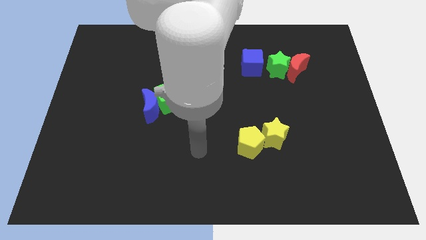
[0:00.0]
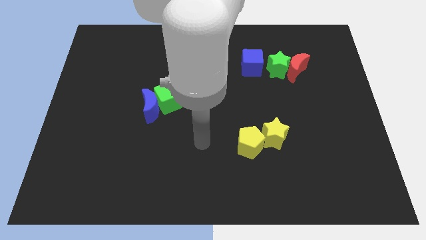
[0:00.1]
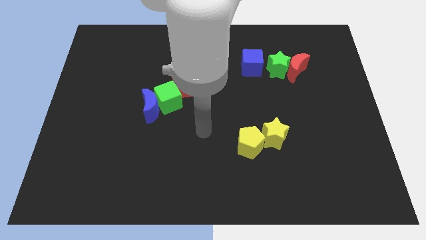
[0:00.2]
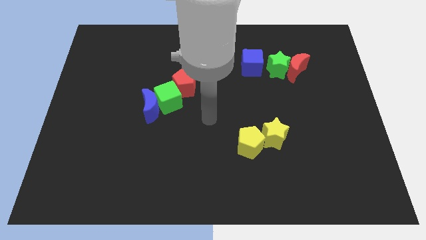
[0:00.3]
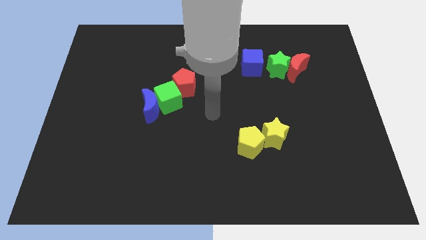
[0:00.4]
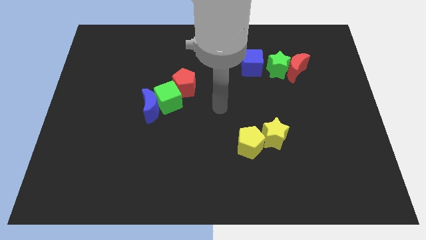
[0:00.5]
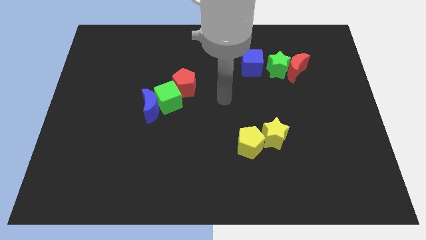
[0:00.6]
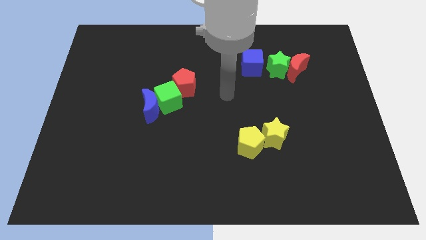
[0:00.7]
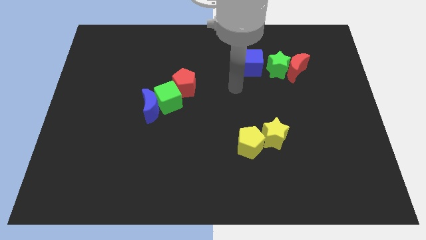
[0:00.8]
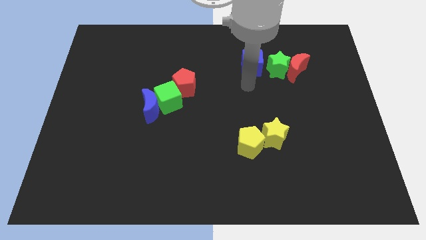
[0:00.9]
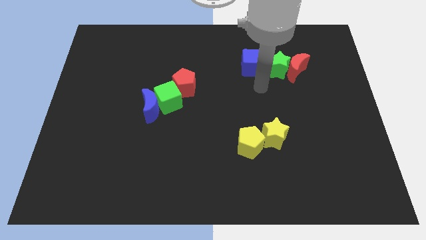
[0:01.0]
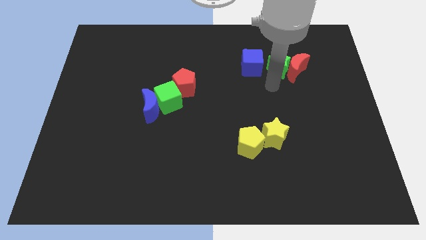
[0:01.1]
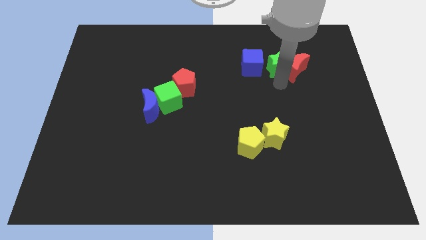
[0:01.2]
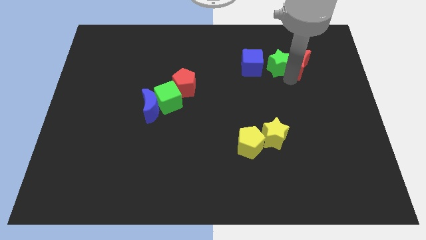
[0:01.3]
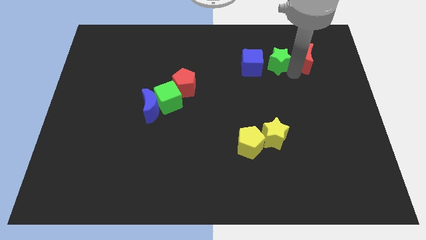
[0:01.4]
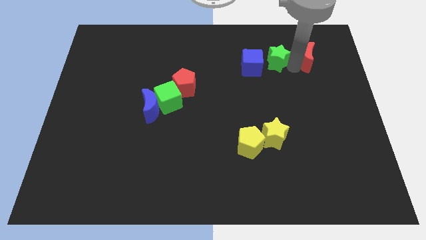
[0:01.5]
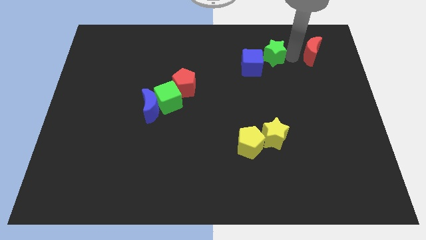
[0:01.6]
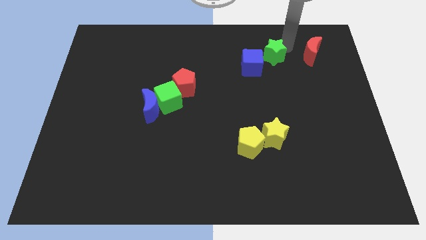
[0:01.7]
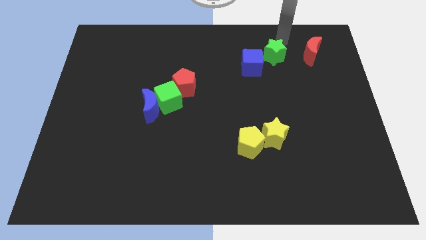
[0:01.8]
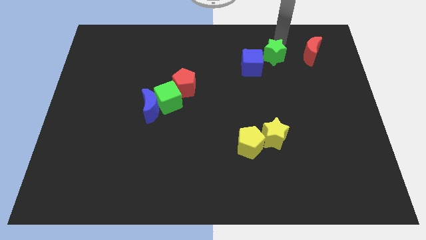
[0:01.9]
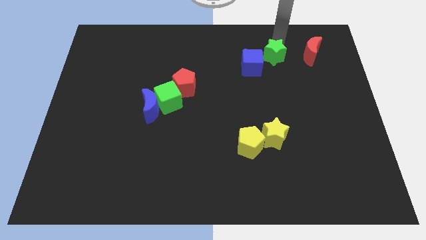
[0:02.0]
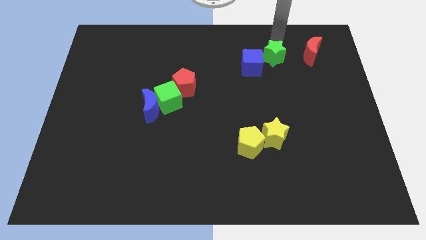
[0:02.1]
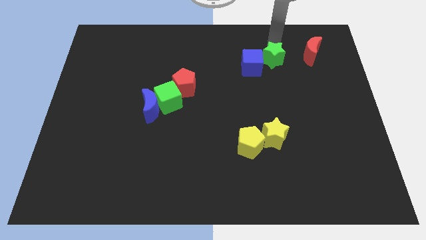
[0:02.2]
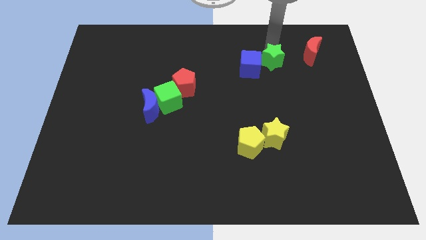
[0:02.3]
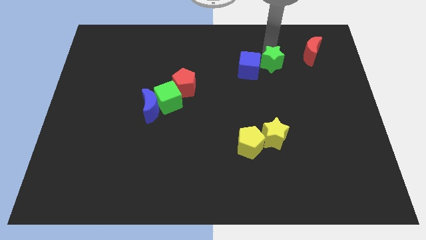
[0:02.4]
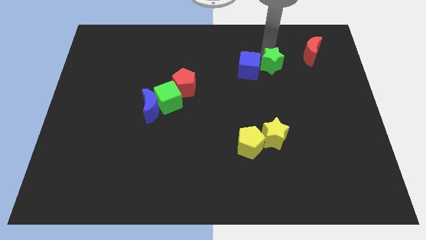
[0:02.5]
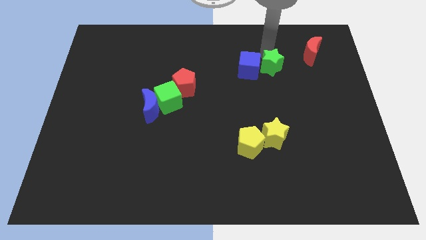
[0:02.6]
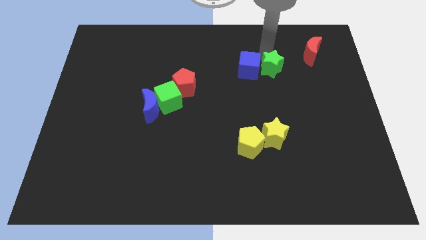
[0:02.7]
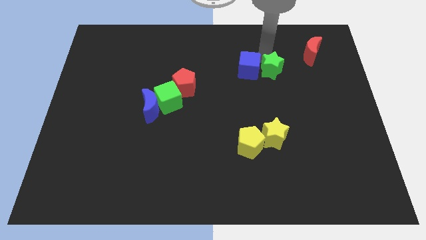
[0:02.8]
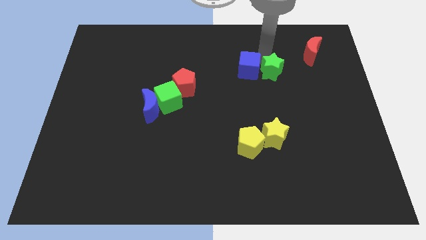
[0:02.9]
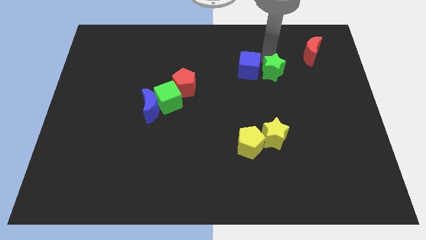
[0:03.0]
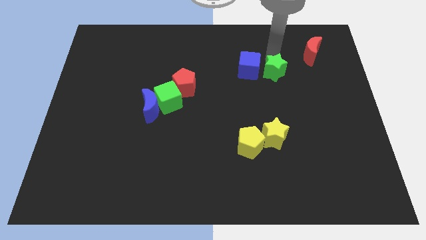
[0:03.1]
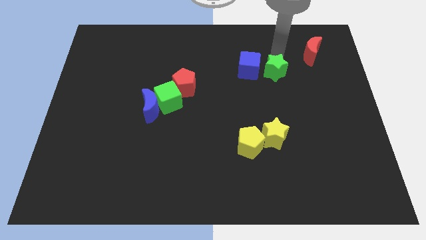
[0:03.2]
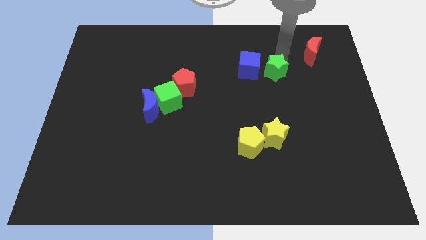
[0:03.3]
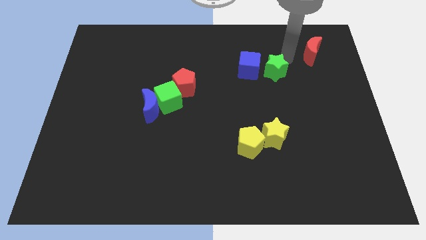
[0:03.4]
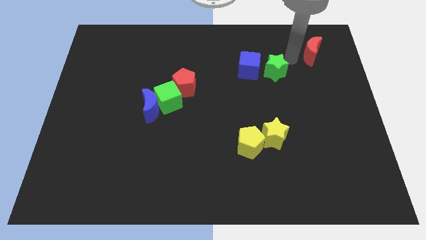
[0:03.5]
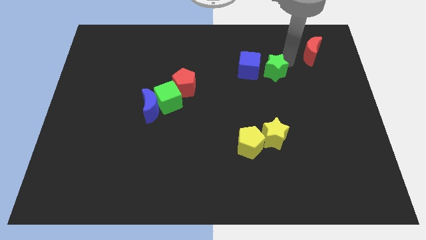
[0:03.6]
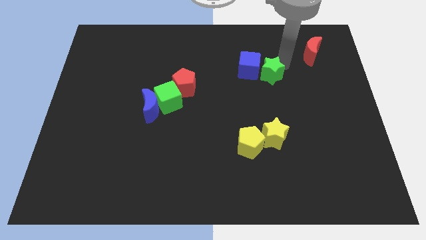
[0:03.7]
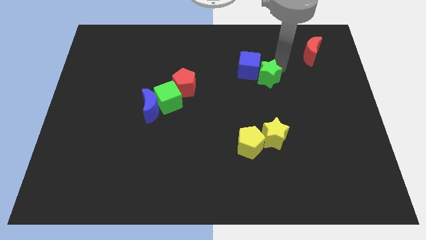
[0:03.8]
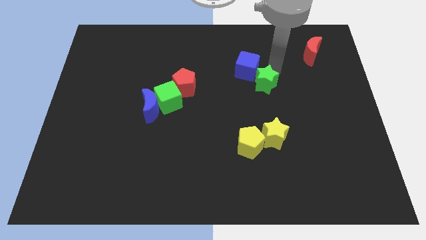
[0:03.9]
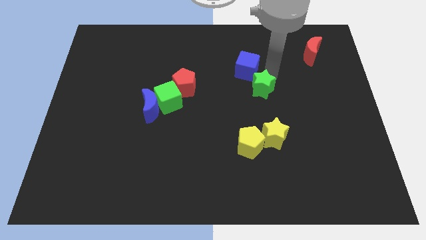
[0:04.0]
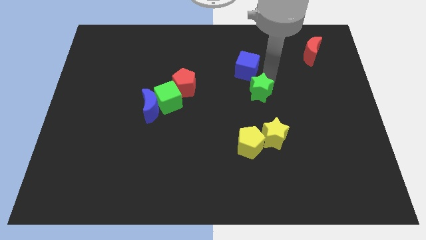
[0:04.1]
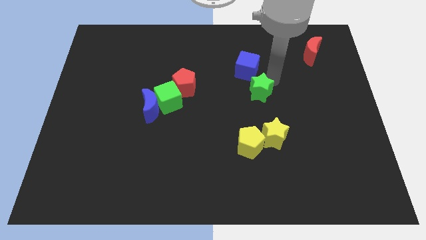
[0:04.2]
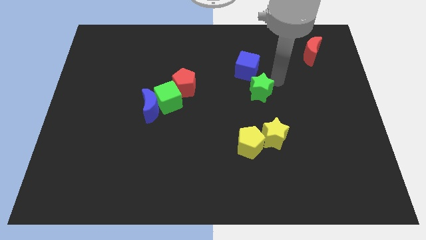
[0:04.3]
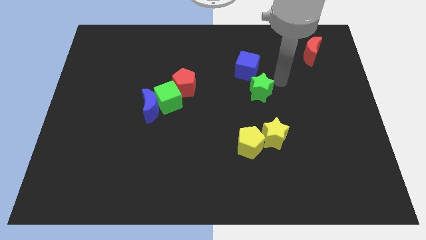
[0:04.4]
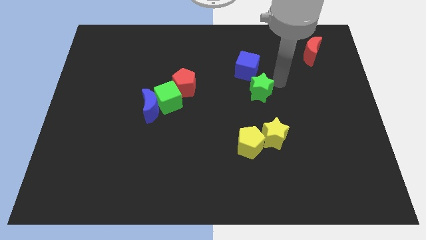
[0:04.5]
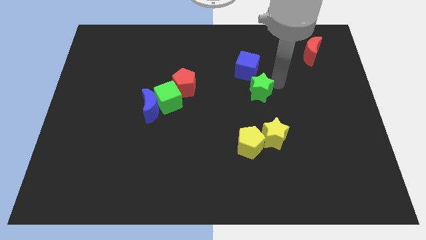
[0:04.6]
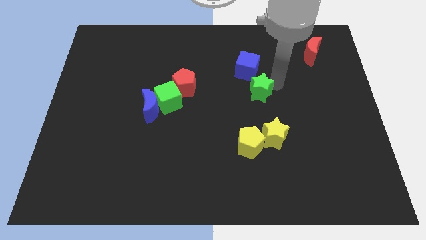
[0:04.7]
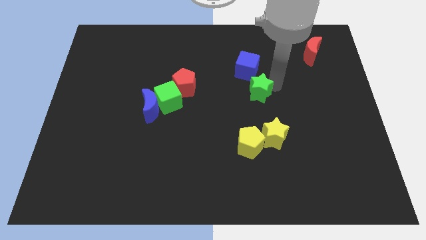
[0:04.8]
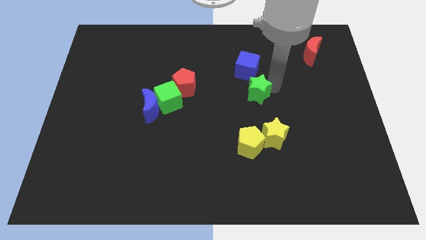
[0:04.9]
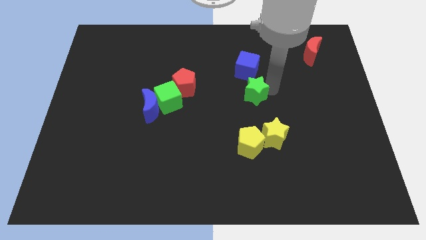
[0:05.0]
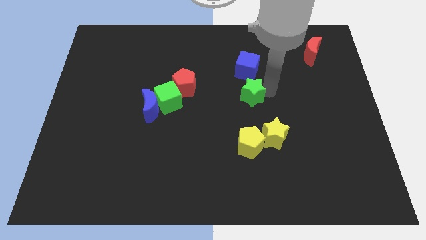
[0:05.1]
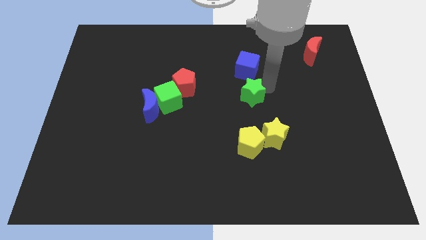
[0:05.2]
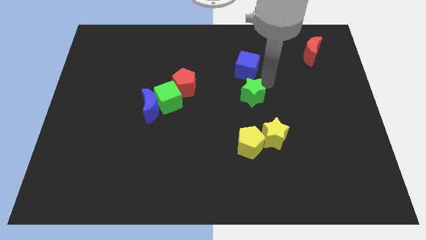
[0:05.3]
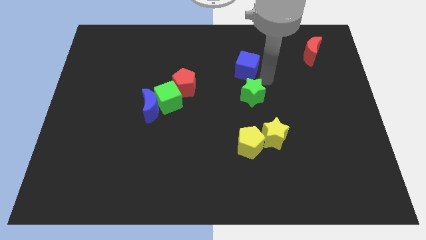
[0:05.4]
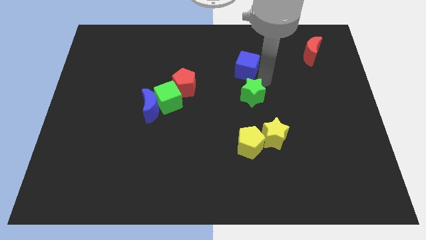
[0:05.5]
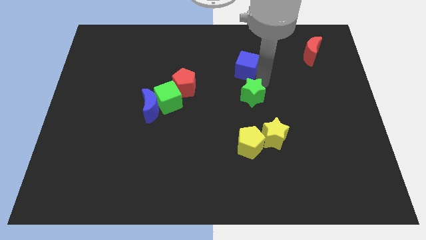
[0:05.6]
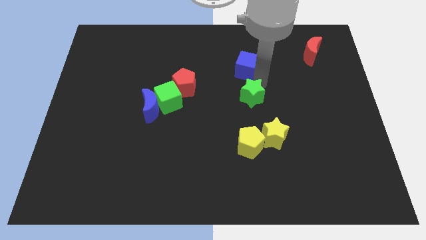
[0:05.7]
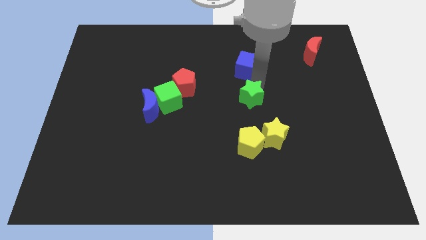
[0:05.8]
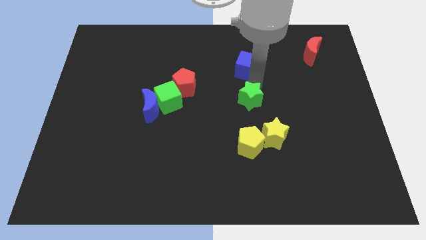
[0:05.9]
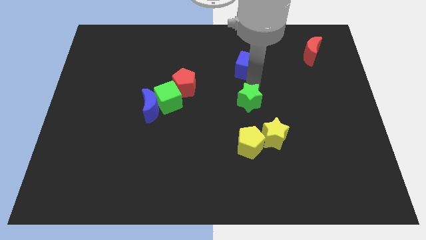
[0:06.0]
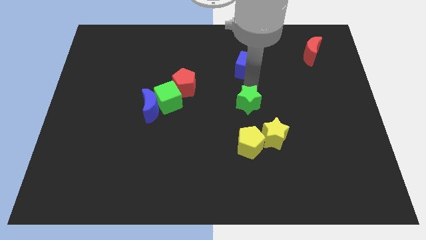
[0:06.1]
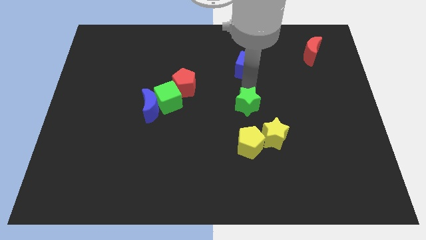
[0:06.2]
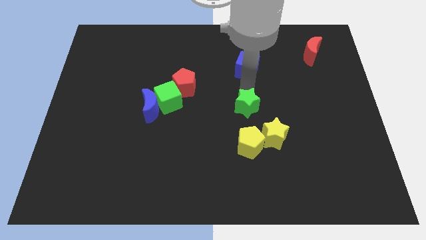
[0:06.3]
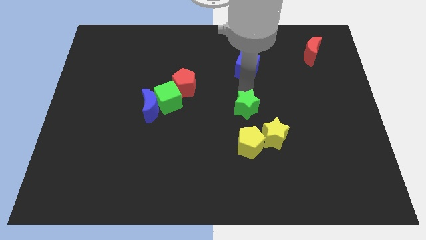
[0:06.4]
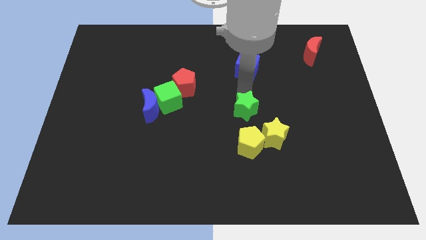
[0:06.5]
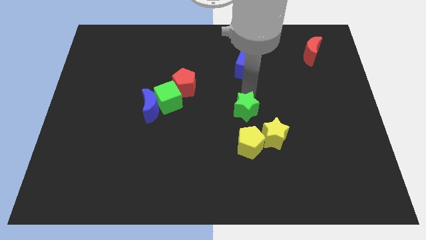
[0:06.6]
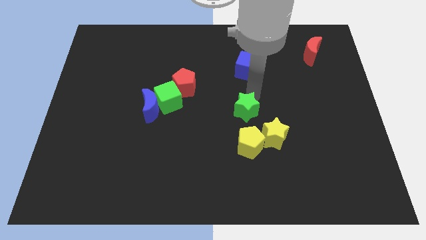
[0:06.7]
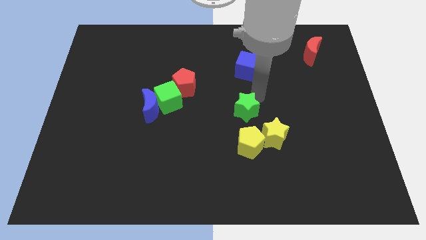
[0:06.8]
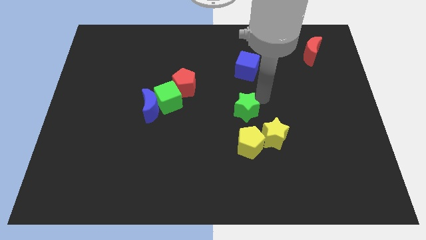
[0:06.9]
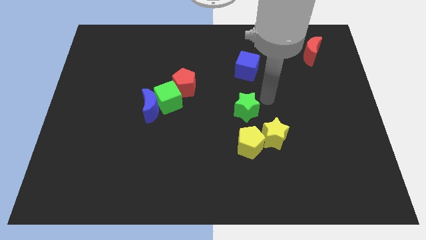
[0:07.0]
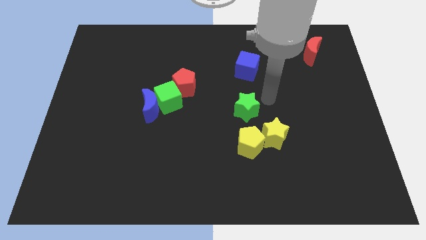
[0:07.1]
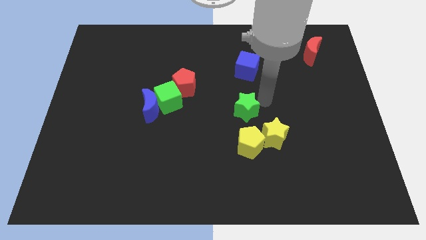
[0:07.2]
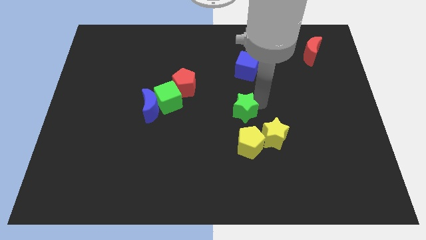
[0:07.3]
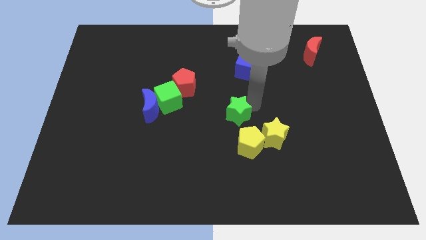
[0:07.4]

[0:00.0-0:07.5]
put the green star to the top left side of the yellow pentagon

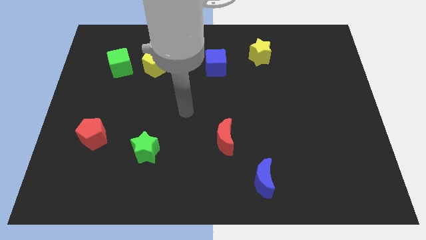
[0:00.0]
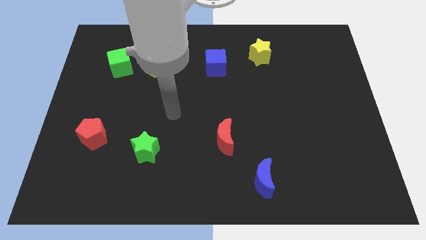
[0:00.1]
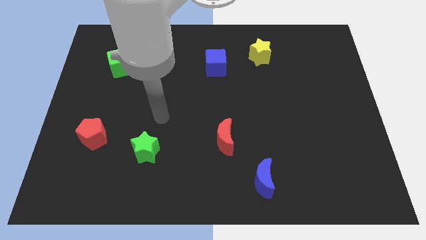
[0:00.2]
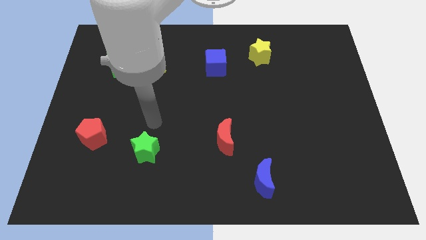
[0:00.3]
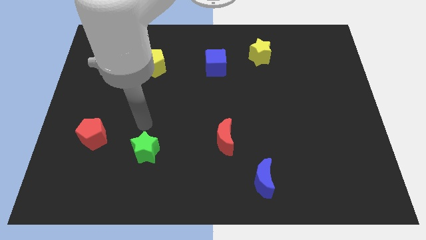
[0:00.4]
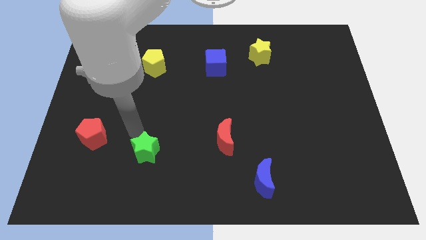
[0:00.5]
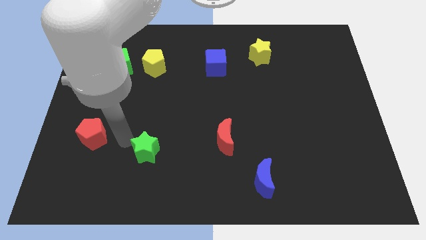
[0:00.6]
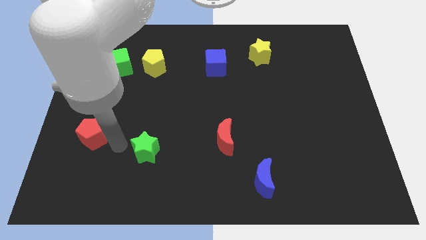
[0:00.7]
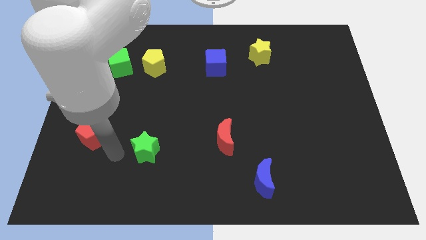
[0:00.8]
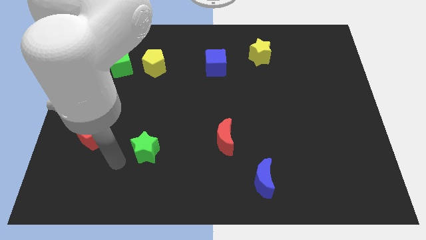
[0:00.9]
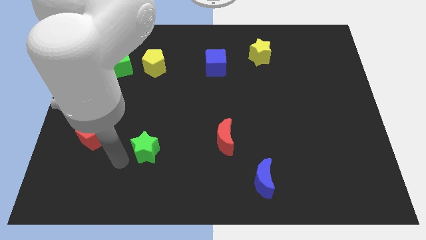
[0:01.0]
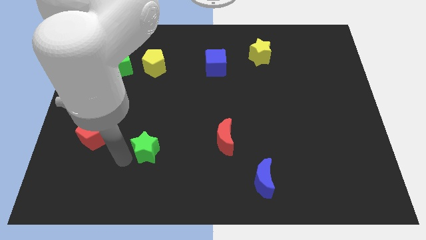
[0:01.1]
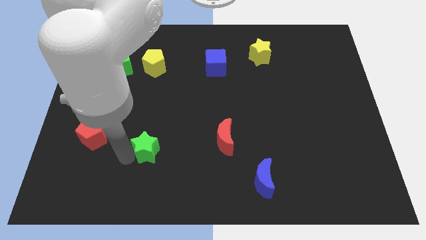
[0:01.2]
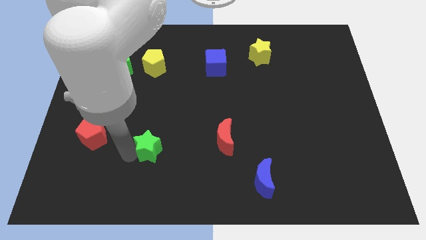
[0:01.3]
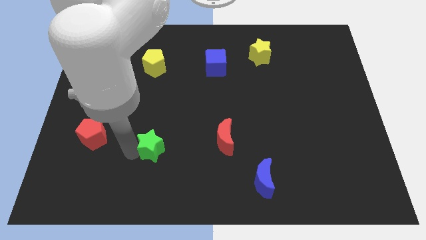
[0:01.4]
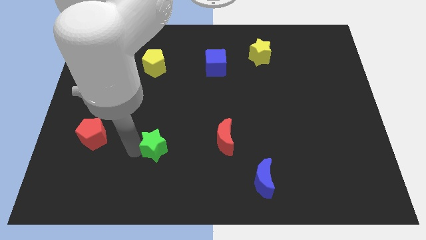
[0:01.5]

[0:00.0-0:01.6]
push the green star left of the red moon
